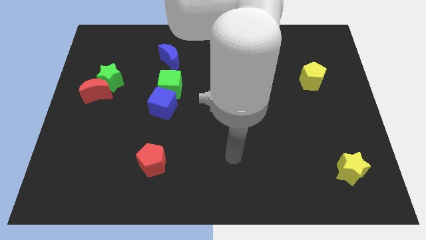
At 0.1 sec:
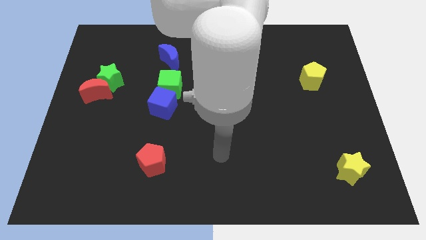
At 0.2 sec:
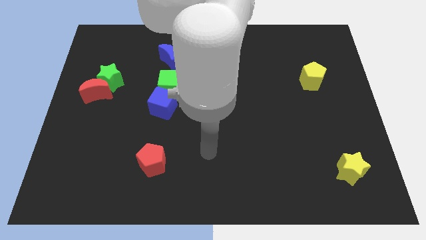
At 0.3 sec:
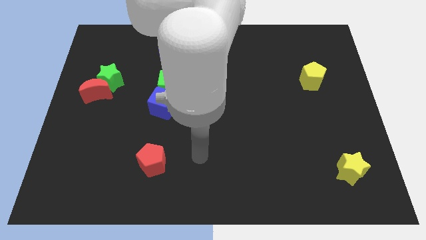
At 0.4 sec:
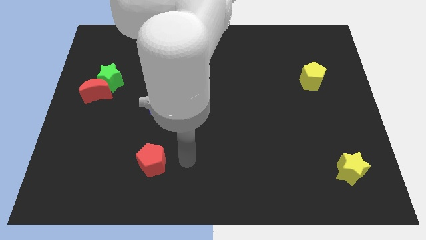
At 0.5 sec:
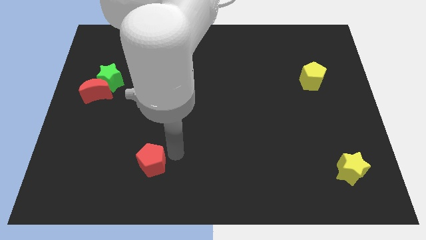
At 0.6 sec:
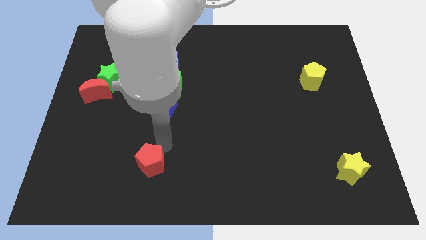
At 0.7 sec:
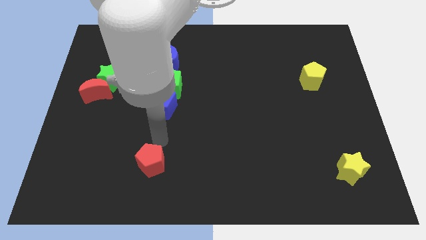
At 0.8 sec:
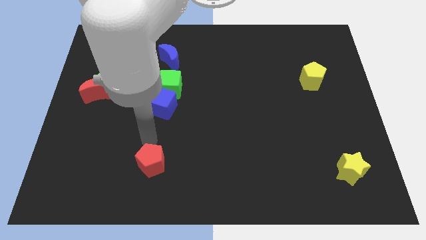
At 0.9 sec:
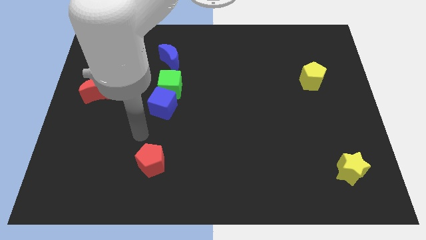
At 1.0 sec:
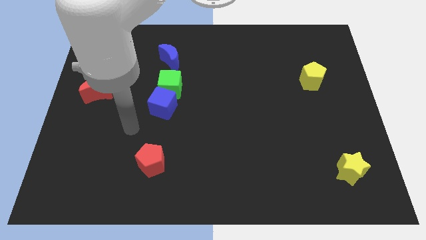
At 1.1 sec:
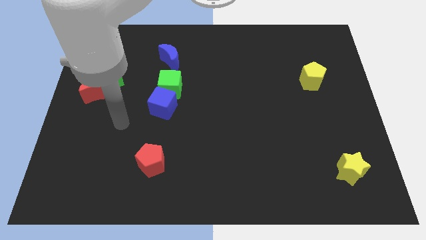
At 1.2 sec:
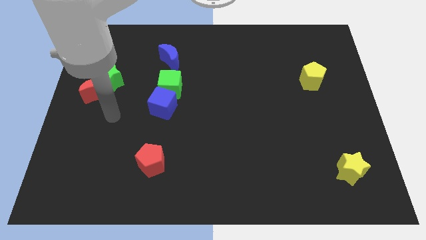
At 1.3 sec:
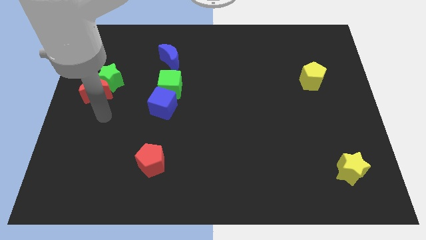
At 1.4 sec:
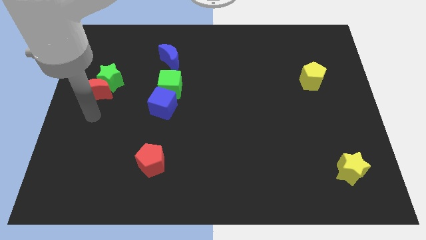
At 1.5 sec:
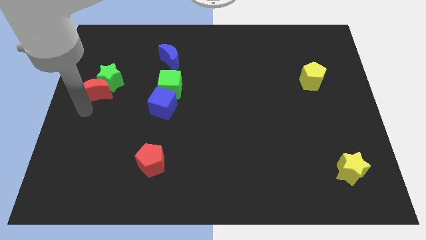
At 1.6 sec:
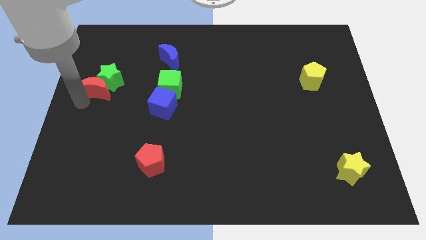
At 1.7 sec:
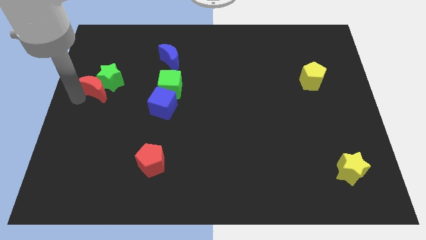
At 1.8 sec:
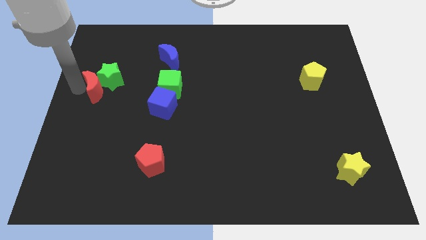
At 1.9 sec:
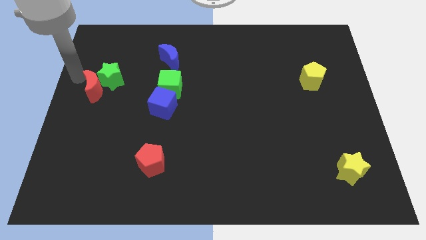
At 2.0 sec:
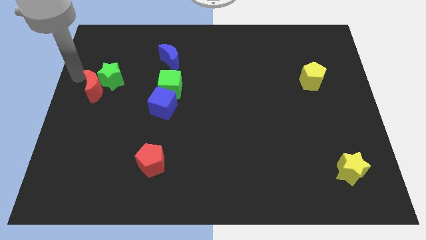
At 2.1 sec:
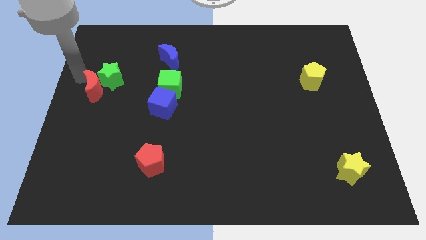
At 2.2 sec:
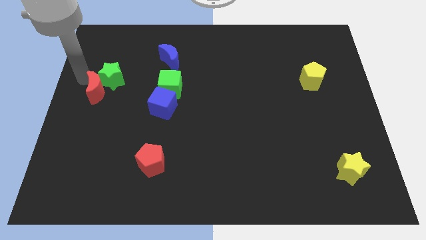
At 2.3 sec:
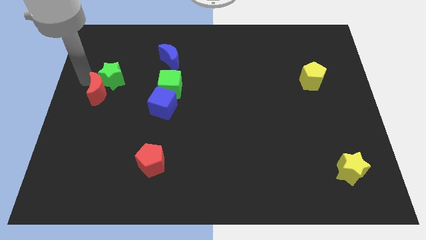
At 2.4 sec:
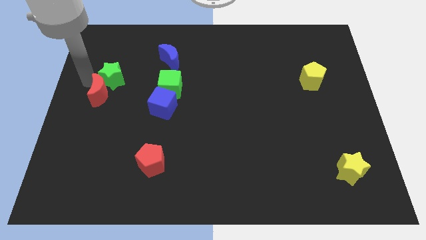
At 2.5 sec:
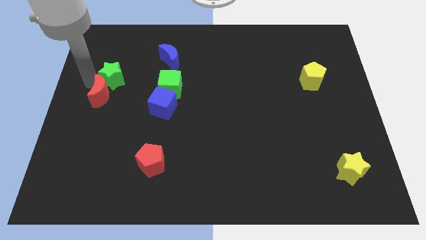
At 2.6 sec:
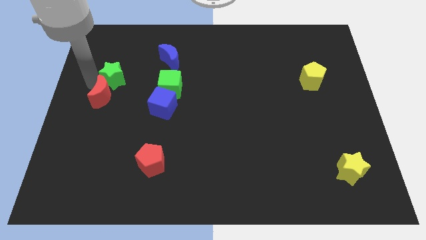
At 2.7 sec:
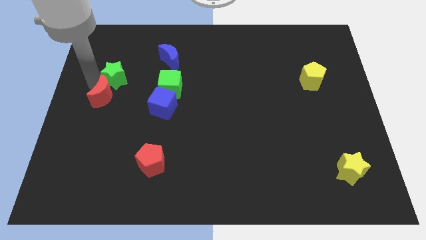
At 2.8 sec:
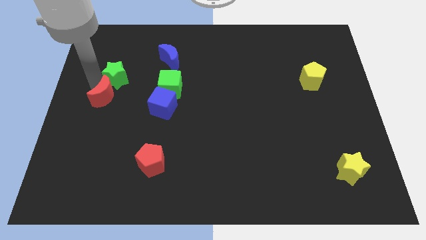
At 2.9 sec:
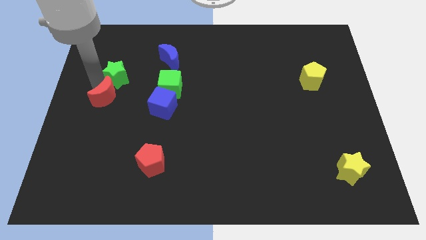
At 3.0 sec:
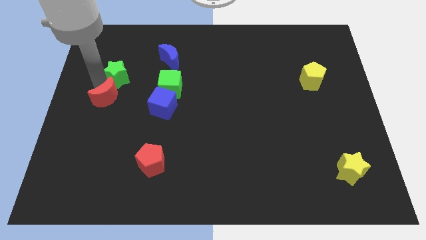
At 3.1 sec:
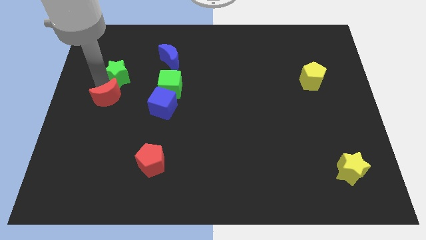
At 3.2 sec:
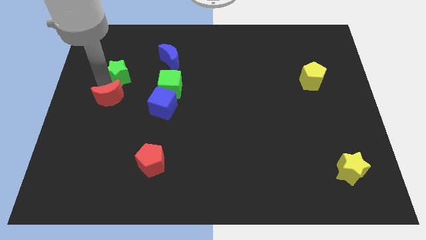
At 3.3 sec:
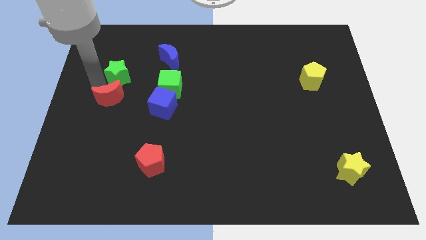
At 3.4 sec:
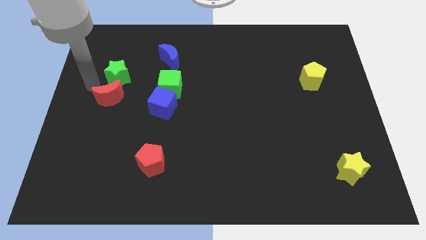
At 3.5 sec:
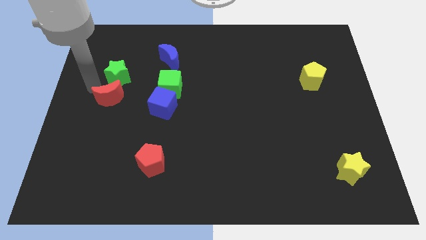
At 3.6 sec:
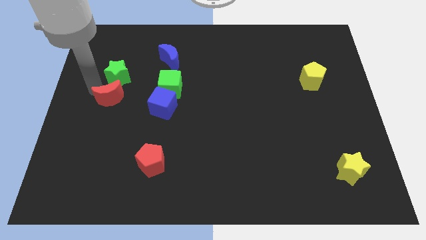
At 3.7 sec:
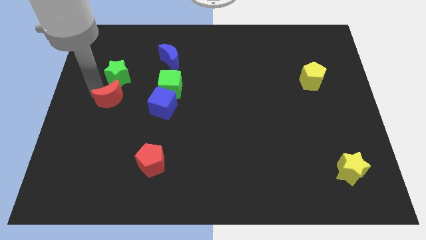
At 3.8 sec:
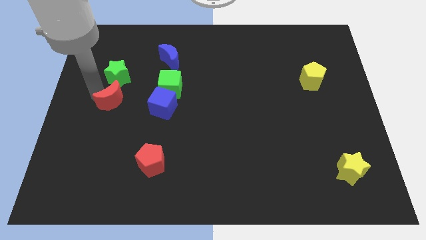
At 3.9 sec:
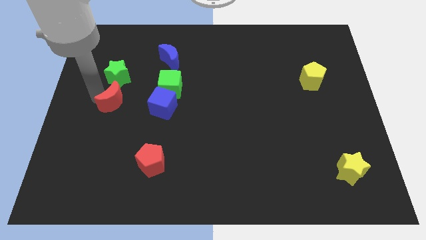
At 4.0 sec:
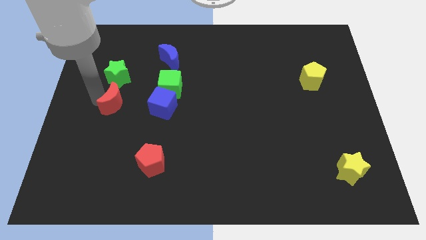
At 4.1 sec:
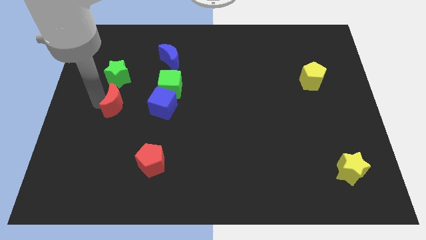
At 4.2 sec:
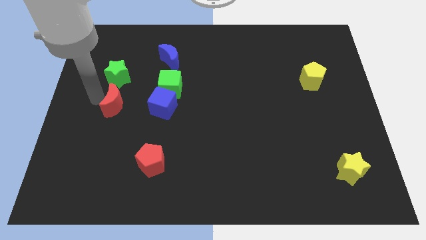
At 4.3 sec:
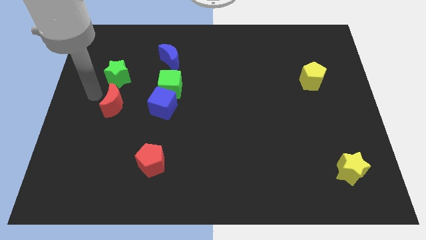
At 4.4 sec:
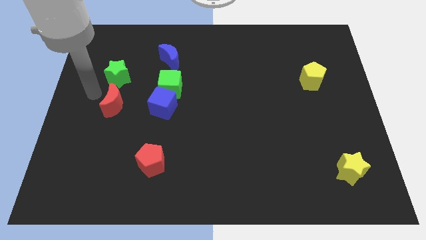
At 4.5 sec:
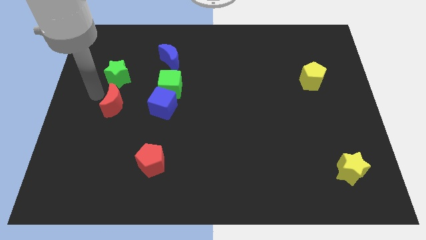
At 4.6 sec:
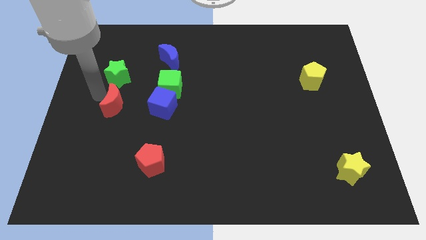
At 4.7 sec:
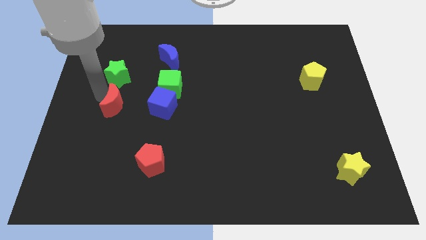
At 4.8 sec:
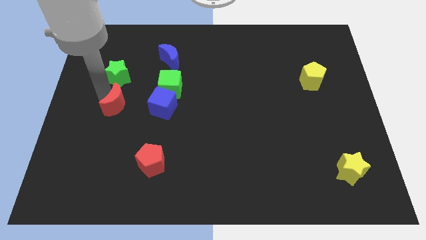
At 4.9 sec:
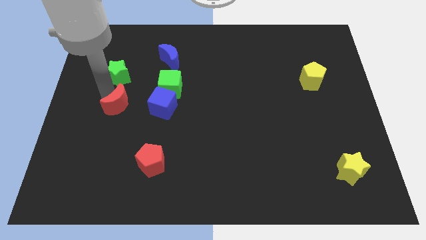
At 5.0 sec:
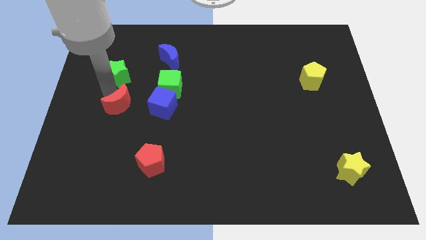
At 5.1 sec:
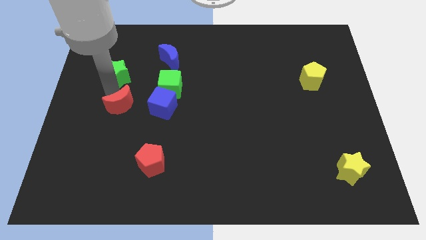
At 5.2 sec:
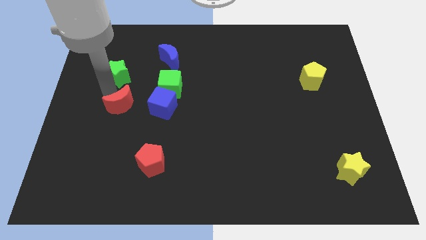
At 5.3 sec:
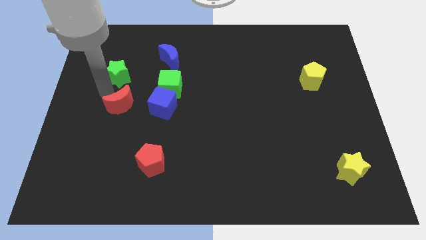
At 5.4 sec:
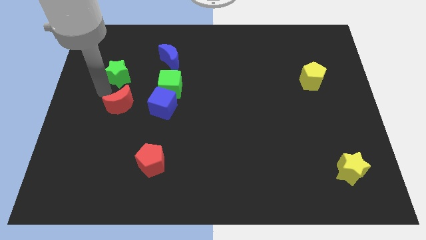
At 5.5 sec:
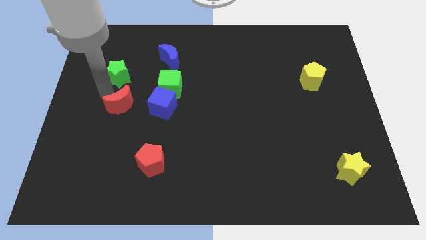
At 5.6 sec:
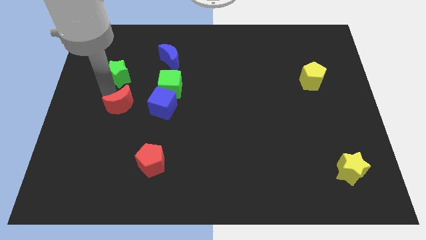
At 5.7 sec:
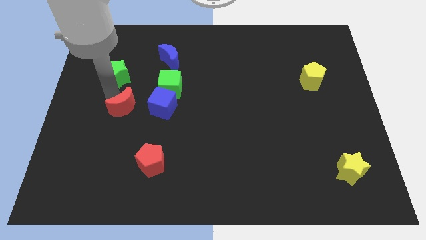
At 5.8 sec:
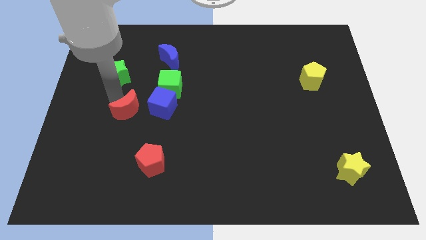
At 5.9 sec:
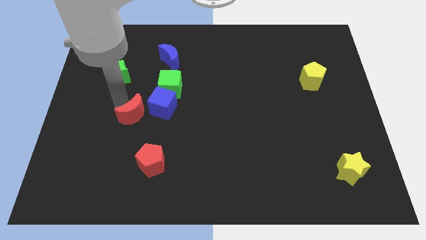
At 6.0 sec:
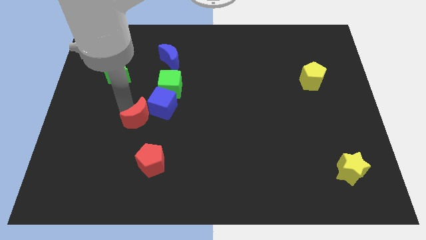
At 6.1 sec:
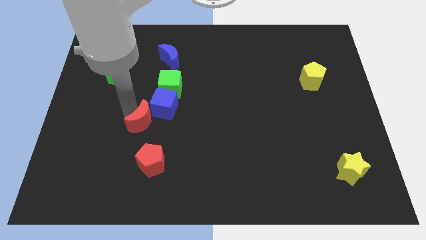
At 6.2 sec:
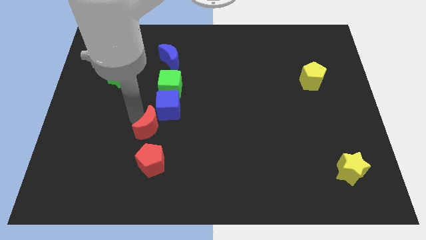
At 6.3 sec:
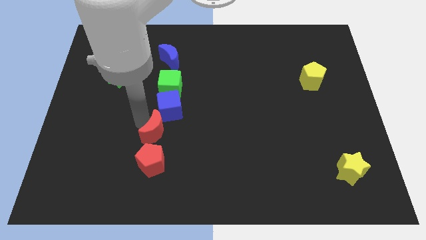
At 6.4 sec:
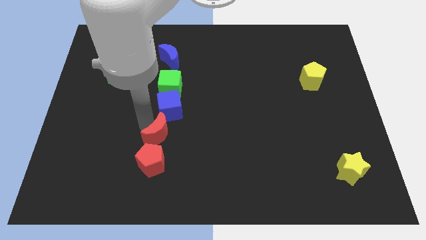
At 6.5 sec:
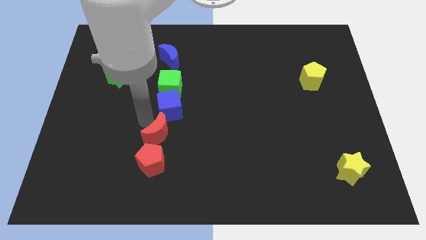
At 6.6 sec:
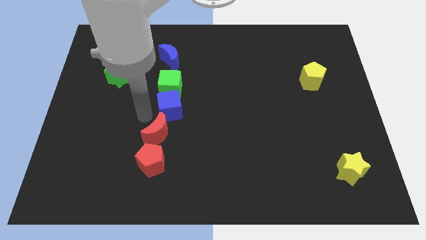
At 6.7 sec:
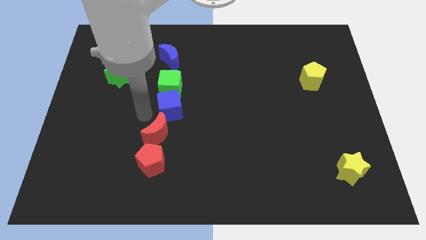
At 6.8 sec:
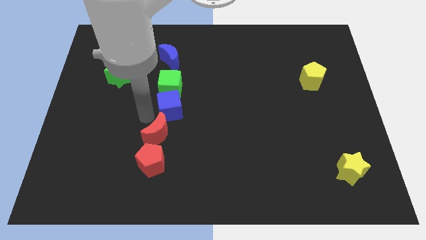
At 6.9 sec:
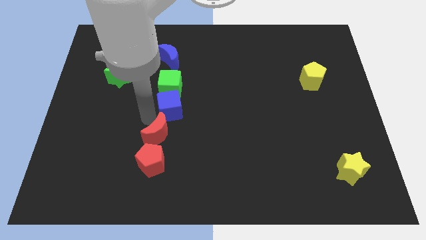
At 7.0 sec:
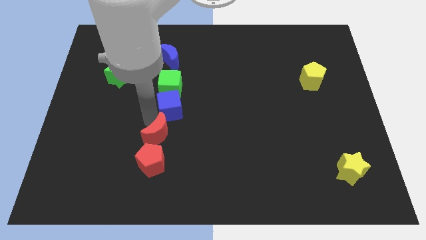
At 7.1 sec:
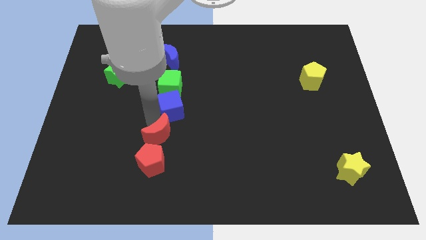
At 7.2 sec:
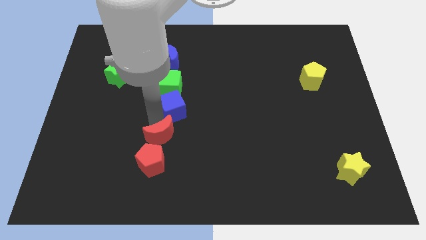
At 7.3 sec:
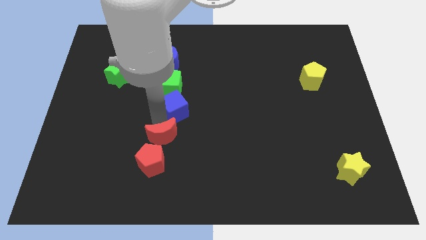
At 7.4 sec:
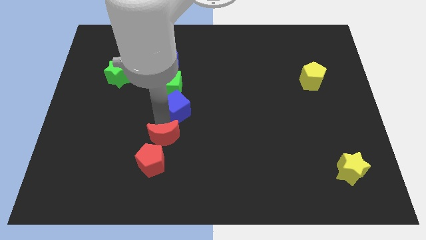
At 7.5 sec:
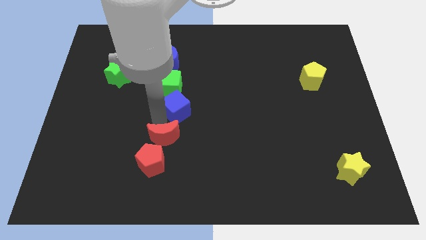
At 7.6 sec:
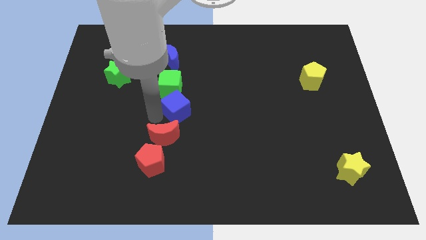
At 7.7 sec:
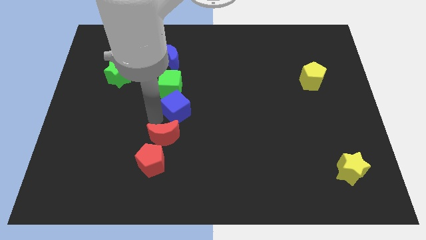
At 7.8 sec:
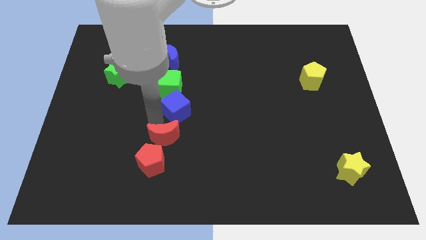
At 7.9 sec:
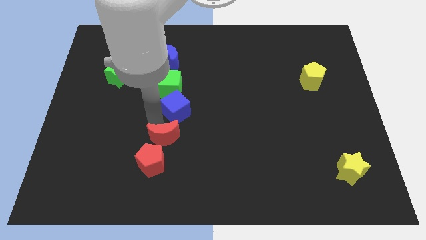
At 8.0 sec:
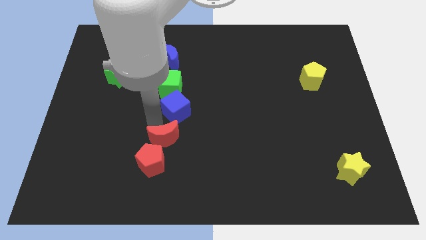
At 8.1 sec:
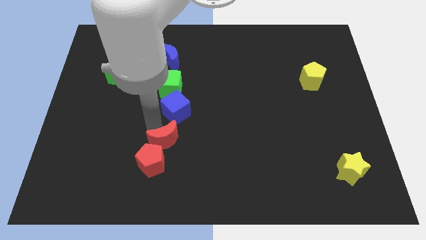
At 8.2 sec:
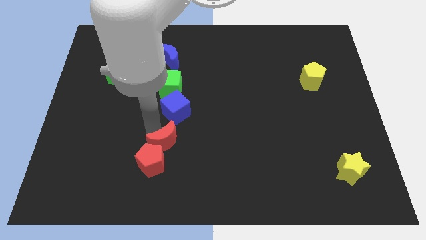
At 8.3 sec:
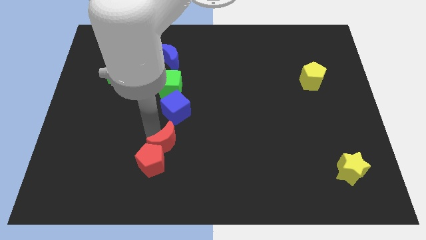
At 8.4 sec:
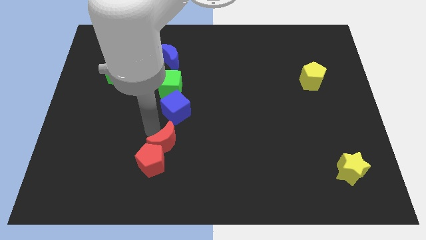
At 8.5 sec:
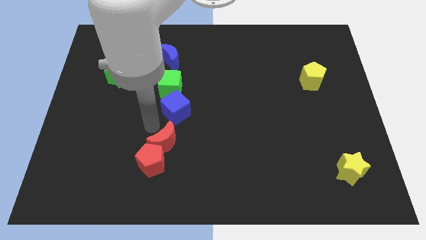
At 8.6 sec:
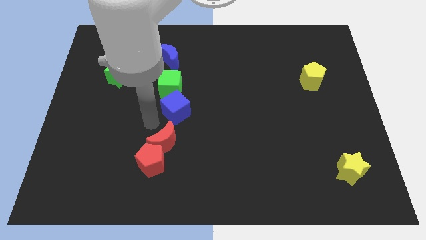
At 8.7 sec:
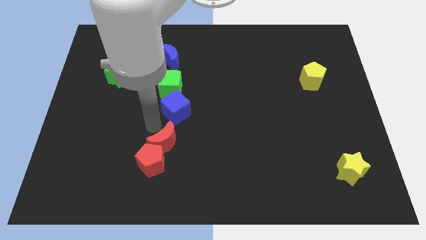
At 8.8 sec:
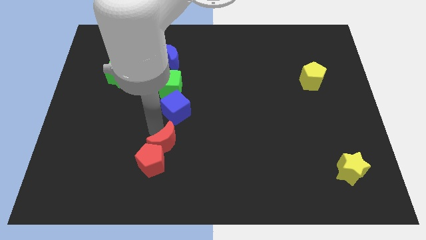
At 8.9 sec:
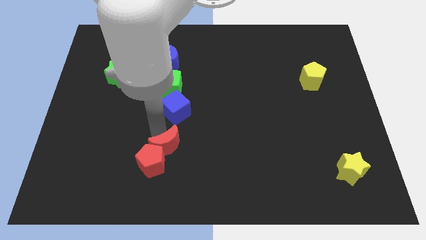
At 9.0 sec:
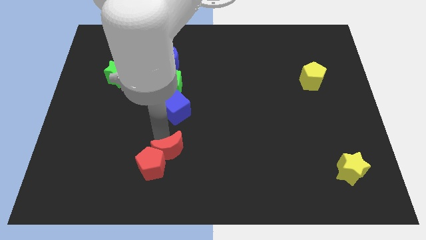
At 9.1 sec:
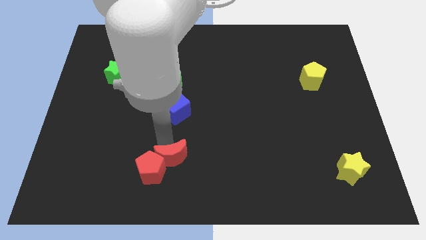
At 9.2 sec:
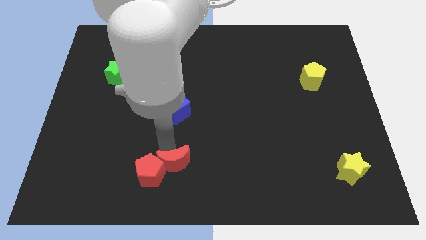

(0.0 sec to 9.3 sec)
move the red moon to the bottom side
